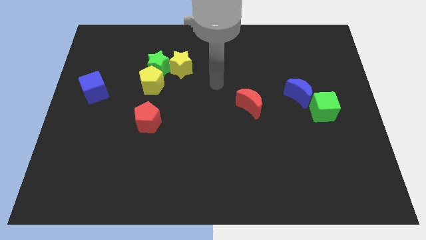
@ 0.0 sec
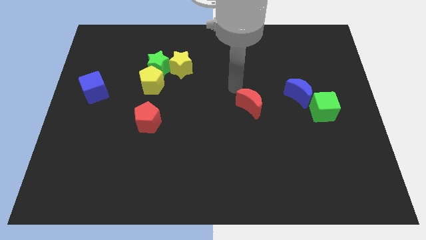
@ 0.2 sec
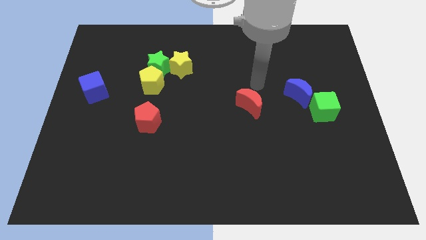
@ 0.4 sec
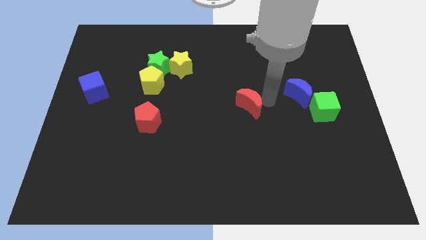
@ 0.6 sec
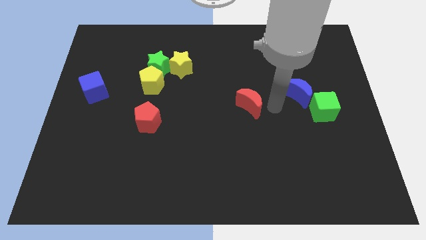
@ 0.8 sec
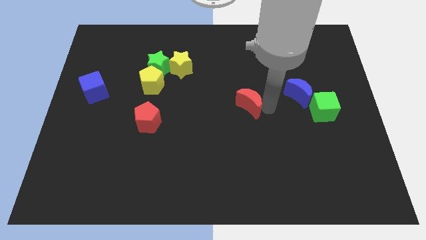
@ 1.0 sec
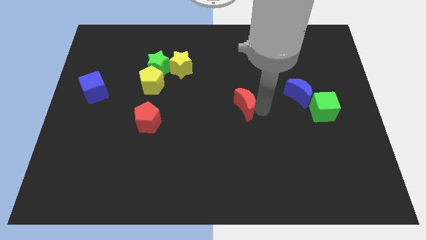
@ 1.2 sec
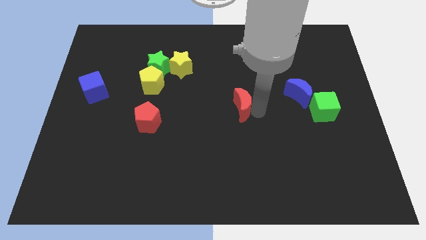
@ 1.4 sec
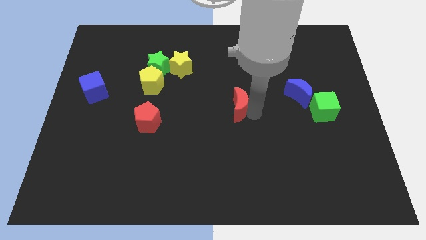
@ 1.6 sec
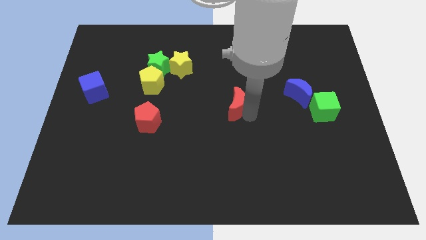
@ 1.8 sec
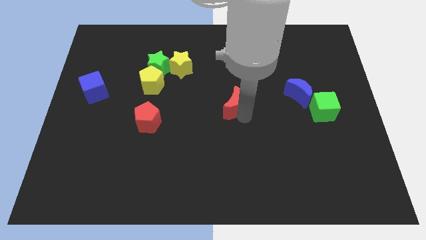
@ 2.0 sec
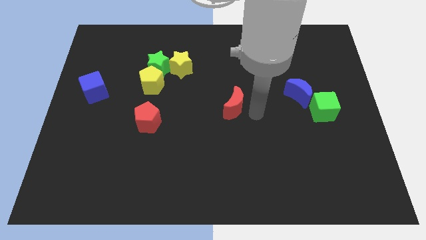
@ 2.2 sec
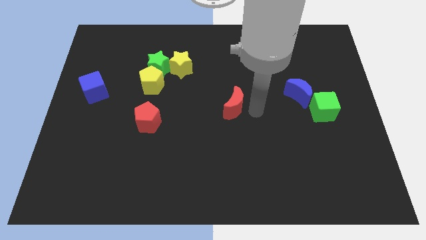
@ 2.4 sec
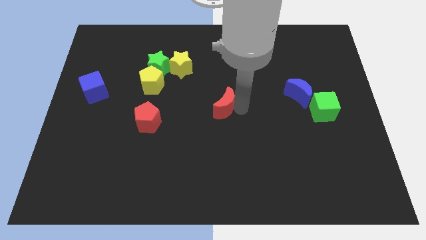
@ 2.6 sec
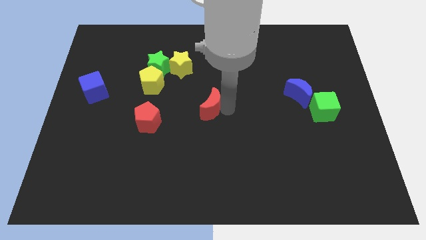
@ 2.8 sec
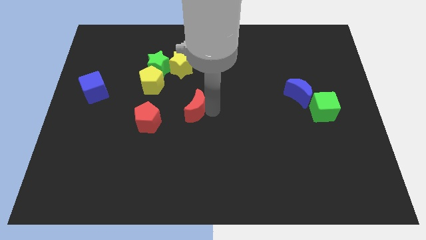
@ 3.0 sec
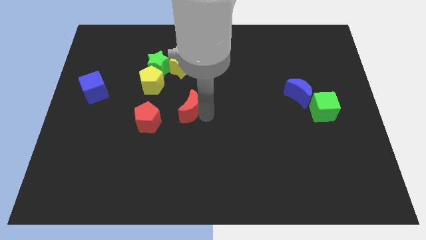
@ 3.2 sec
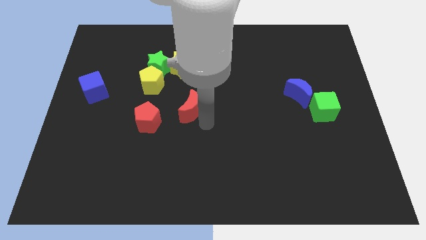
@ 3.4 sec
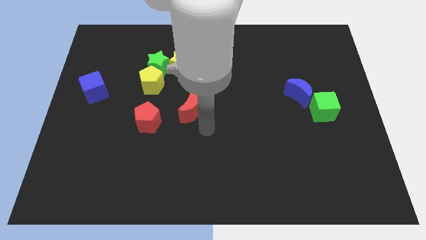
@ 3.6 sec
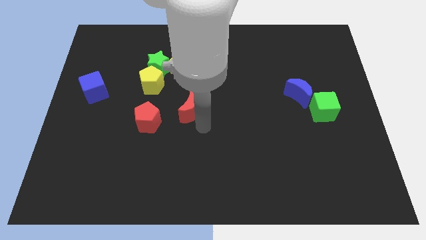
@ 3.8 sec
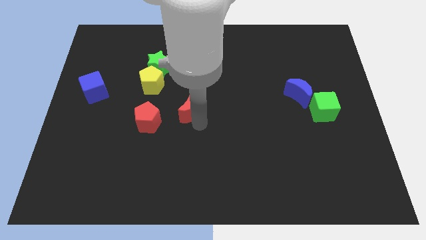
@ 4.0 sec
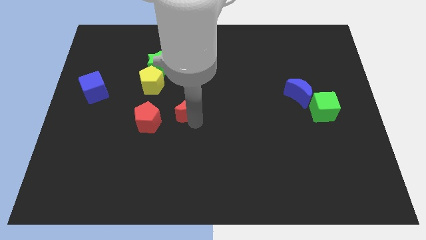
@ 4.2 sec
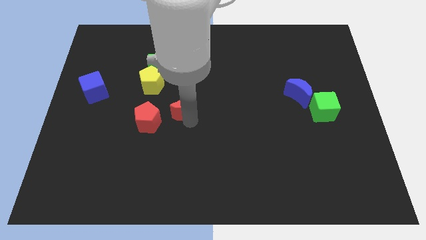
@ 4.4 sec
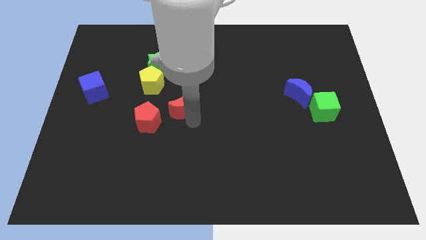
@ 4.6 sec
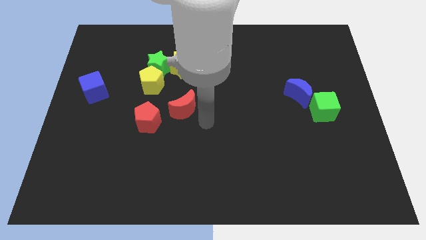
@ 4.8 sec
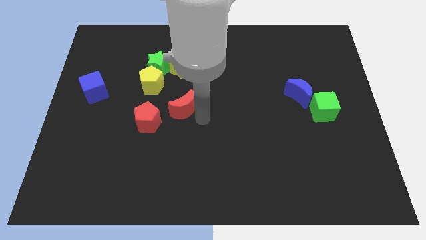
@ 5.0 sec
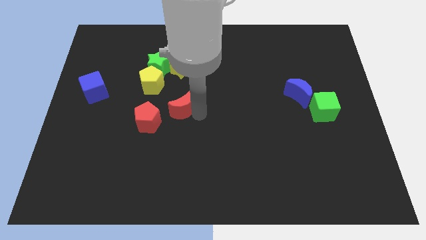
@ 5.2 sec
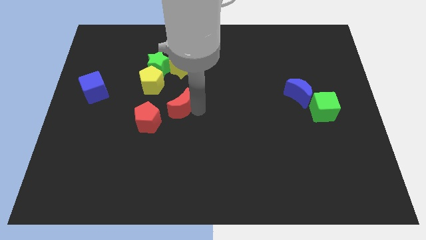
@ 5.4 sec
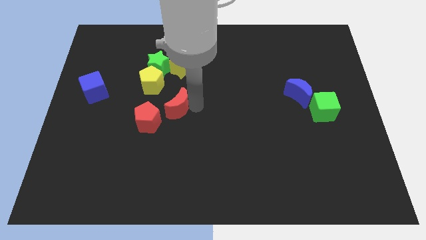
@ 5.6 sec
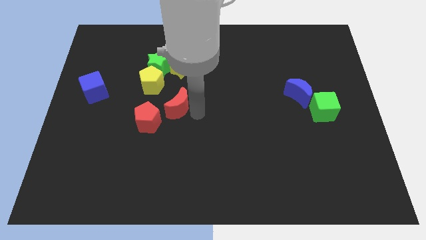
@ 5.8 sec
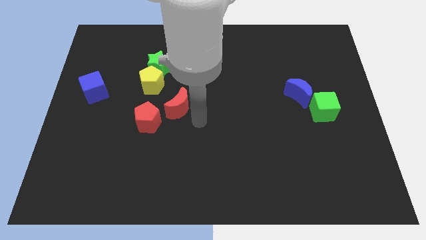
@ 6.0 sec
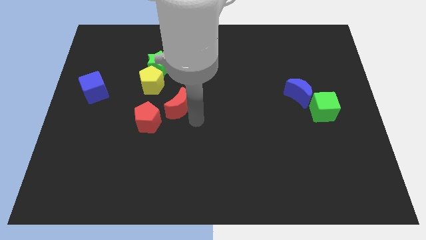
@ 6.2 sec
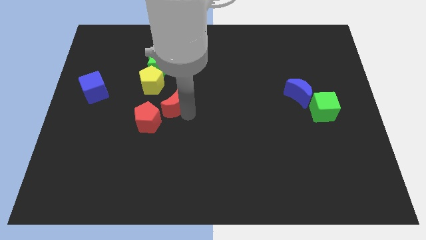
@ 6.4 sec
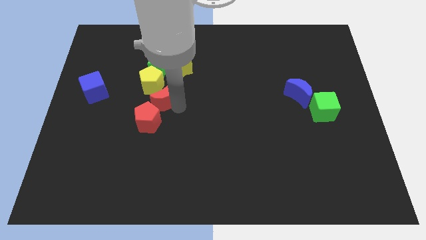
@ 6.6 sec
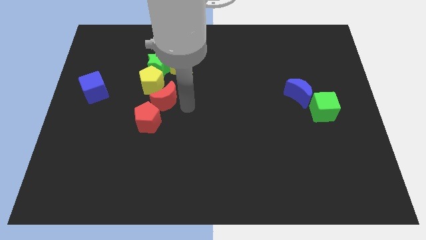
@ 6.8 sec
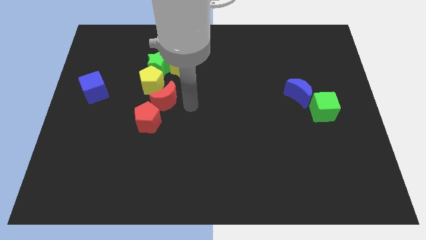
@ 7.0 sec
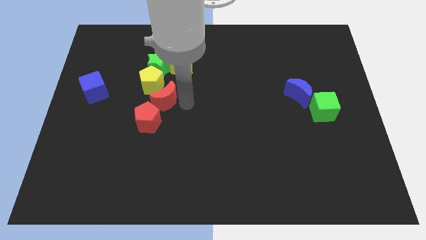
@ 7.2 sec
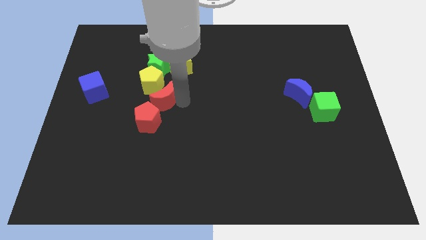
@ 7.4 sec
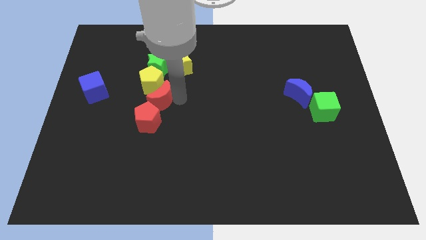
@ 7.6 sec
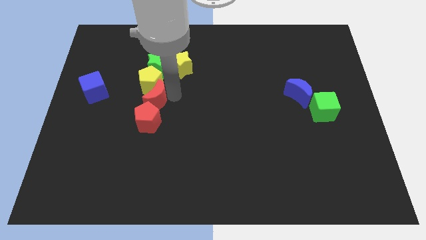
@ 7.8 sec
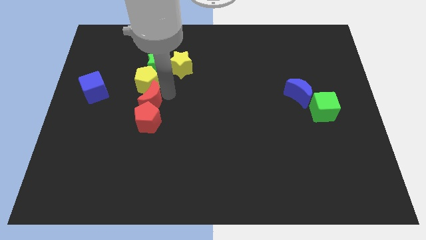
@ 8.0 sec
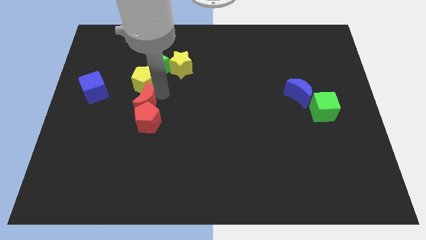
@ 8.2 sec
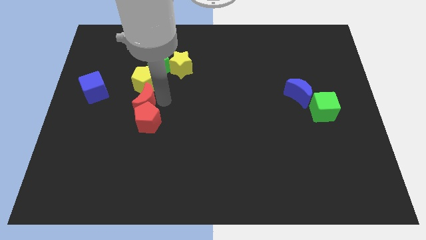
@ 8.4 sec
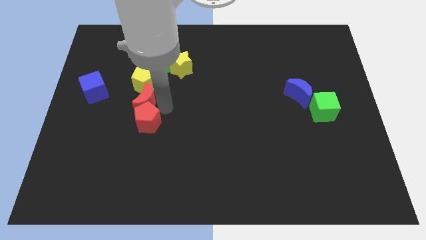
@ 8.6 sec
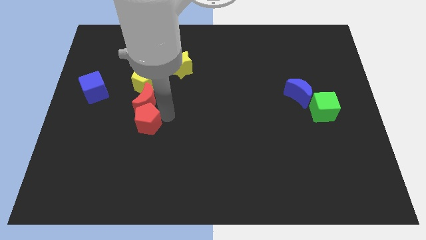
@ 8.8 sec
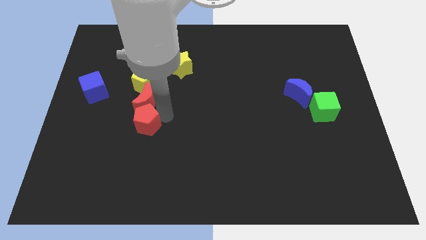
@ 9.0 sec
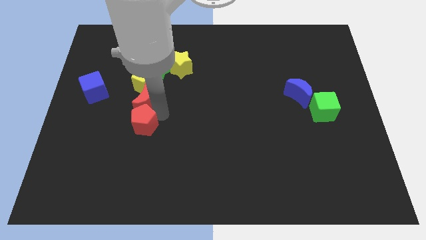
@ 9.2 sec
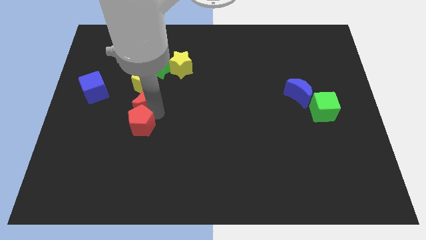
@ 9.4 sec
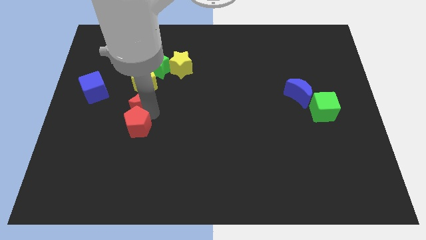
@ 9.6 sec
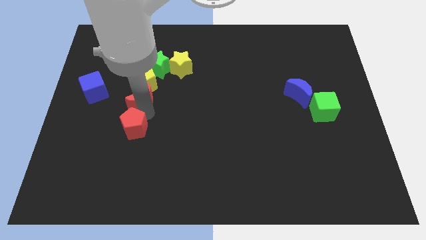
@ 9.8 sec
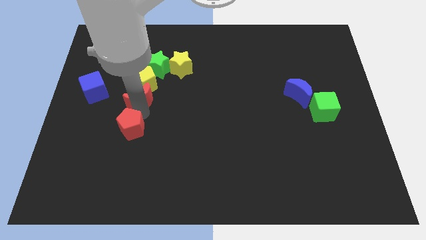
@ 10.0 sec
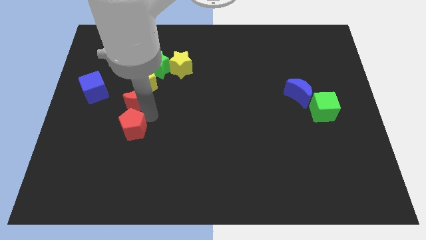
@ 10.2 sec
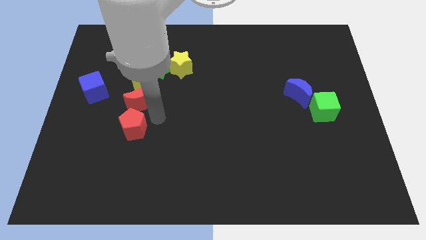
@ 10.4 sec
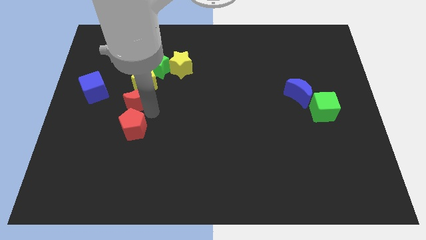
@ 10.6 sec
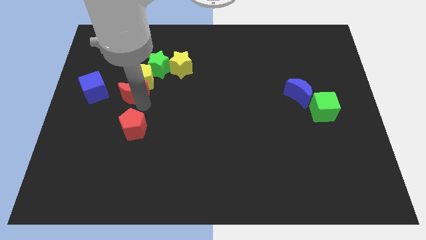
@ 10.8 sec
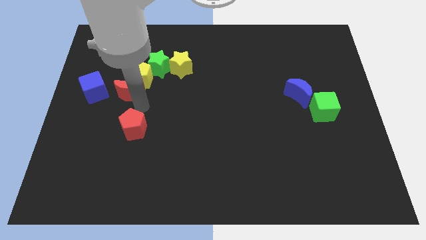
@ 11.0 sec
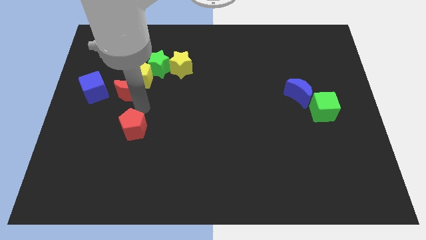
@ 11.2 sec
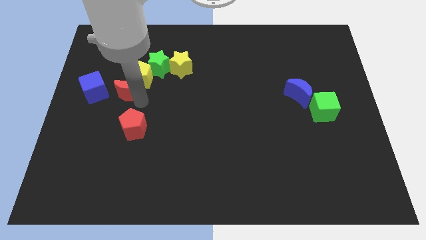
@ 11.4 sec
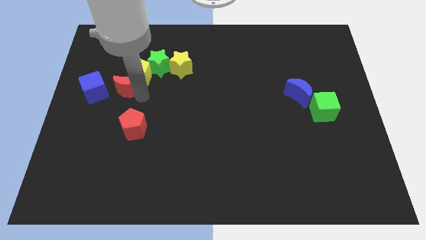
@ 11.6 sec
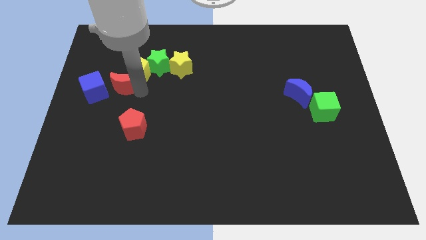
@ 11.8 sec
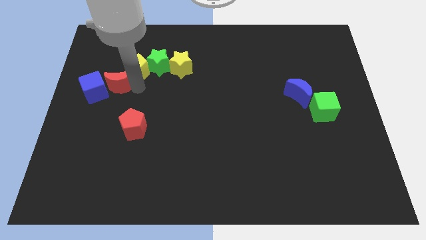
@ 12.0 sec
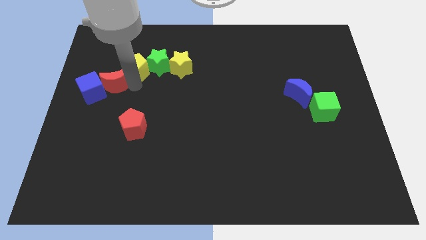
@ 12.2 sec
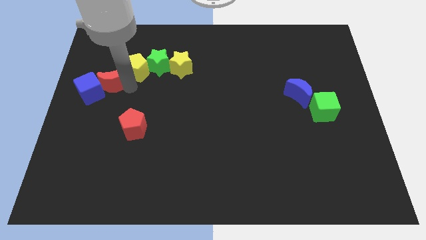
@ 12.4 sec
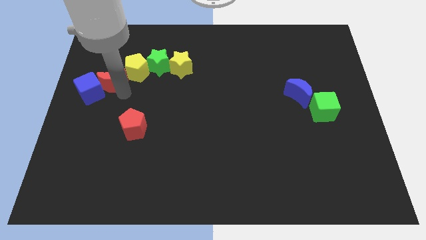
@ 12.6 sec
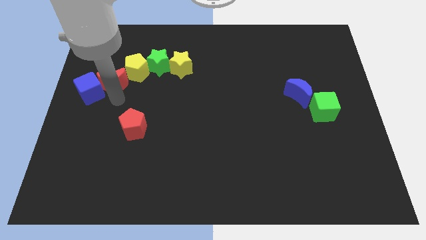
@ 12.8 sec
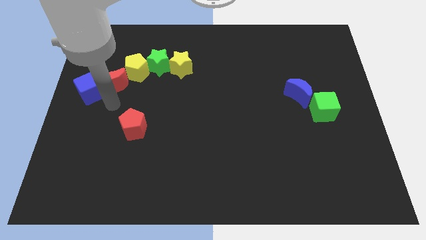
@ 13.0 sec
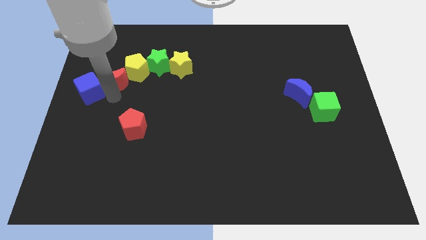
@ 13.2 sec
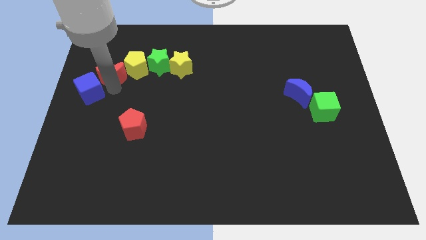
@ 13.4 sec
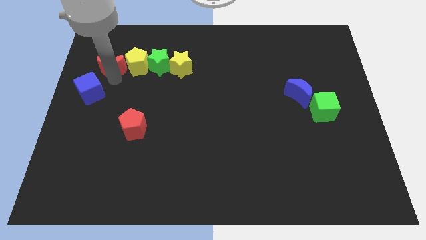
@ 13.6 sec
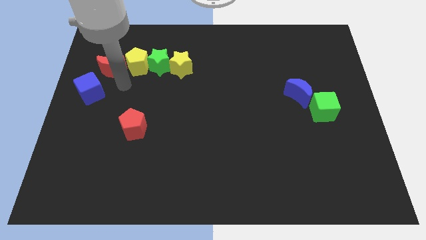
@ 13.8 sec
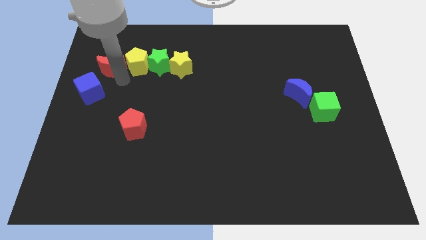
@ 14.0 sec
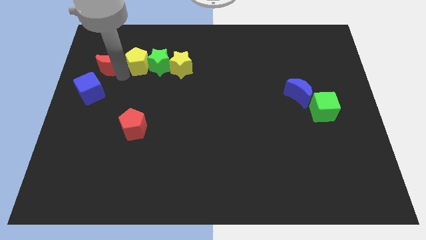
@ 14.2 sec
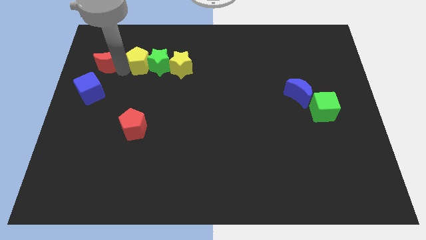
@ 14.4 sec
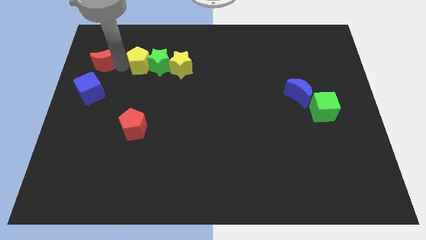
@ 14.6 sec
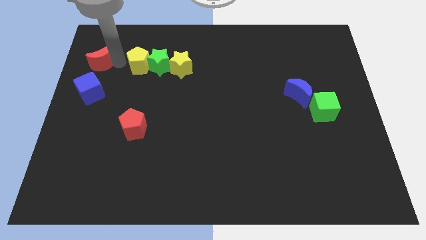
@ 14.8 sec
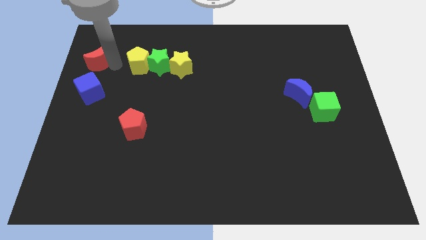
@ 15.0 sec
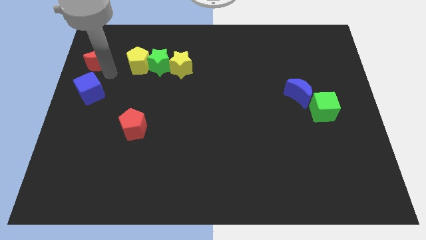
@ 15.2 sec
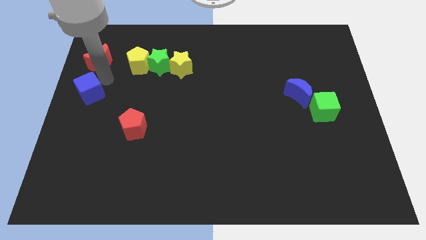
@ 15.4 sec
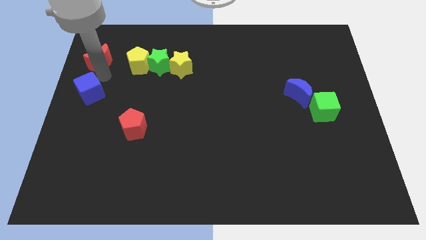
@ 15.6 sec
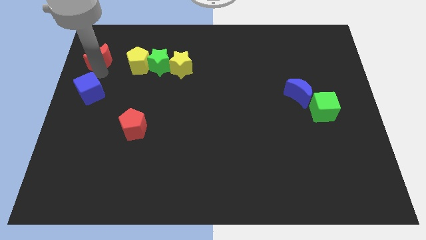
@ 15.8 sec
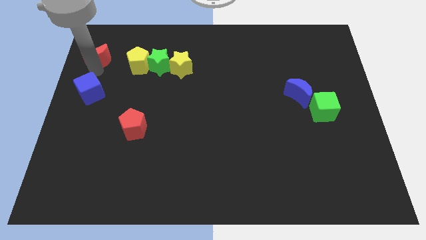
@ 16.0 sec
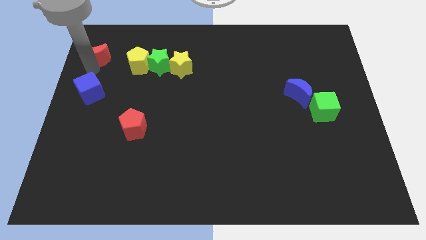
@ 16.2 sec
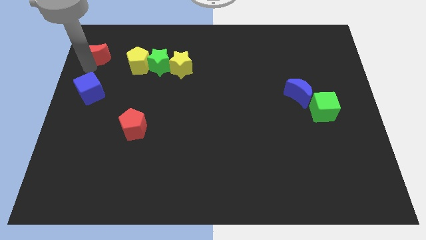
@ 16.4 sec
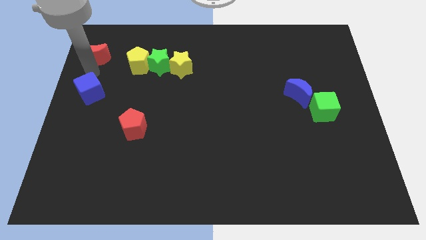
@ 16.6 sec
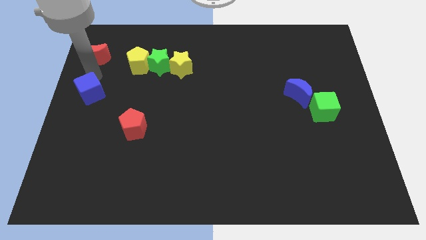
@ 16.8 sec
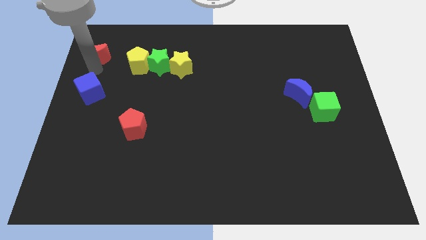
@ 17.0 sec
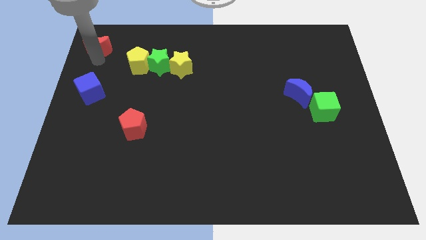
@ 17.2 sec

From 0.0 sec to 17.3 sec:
push the red moon to the top left corner
